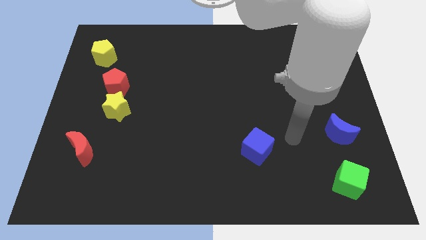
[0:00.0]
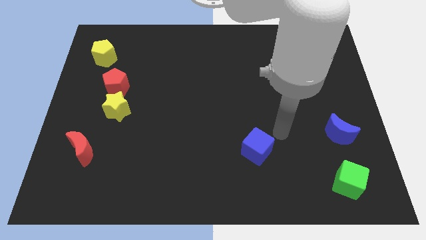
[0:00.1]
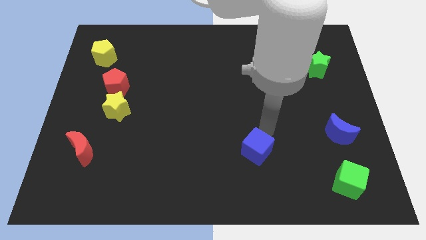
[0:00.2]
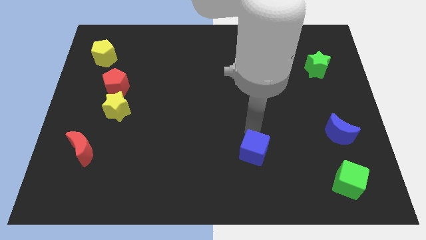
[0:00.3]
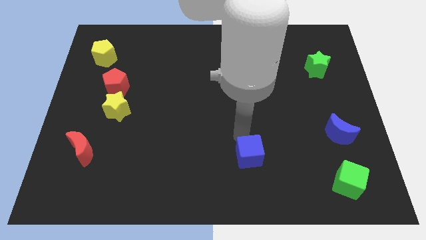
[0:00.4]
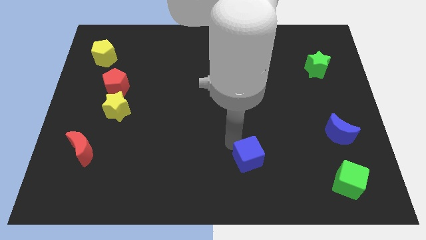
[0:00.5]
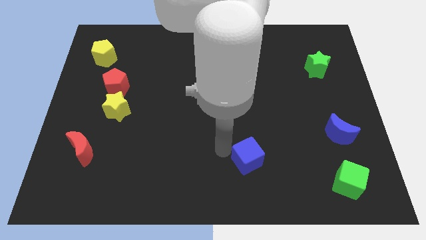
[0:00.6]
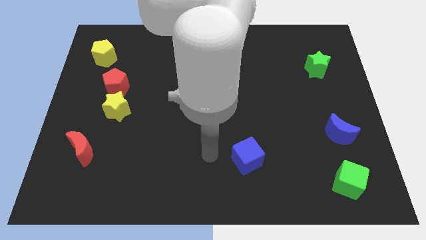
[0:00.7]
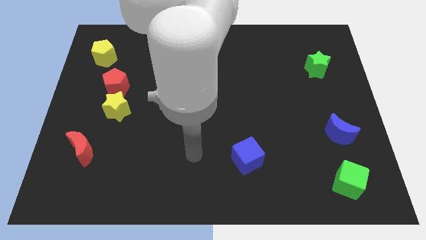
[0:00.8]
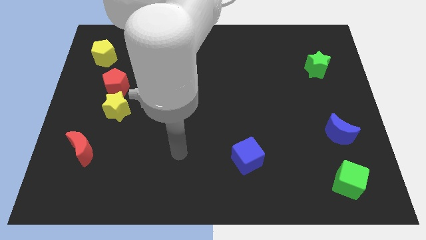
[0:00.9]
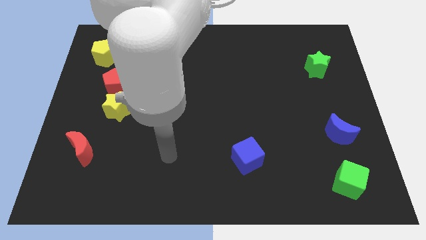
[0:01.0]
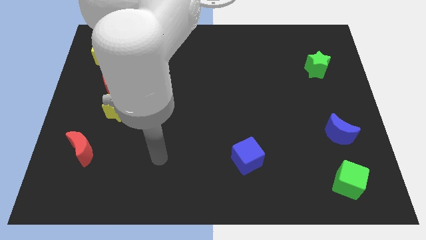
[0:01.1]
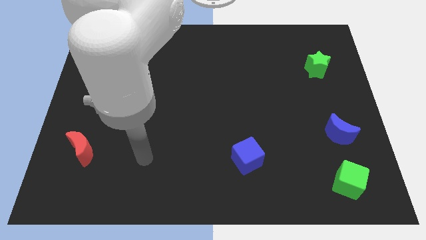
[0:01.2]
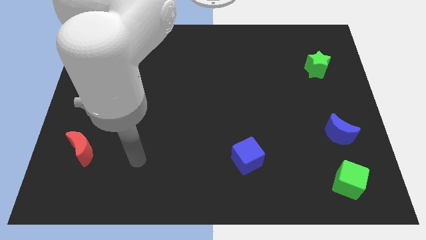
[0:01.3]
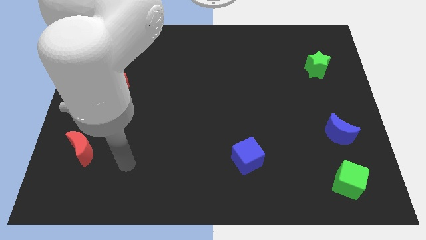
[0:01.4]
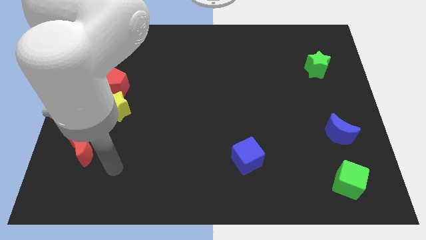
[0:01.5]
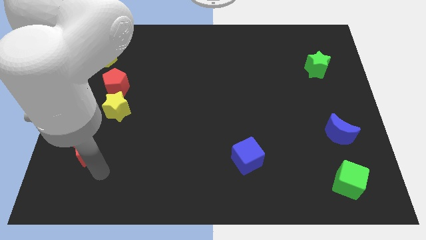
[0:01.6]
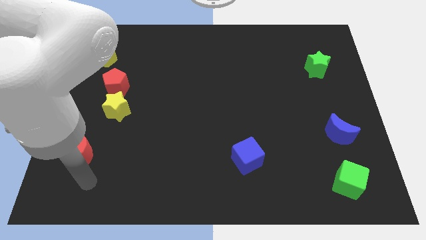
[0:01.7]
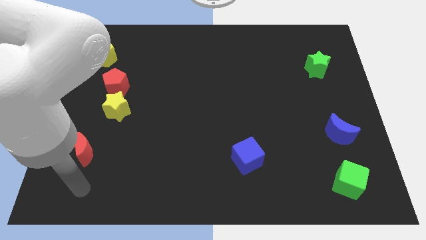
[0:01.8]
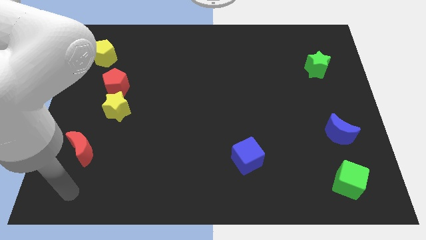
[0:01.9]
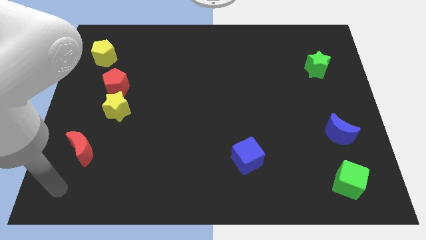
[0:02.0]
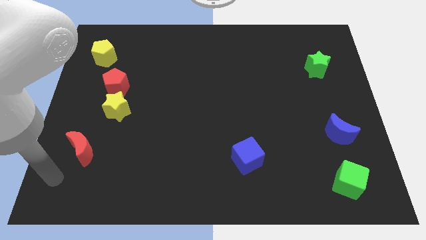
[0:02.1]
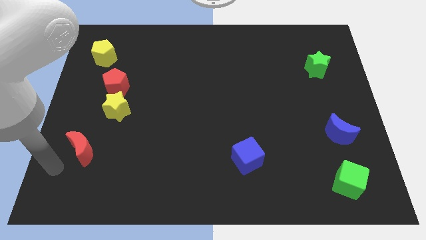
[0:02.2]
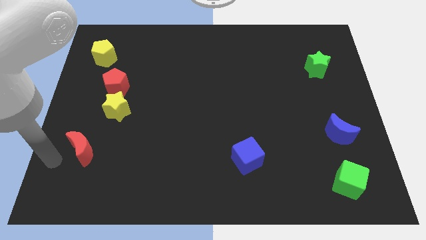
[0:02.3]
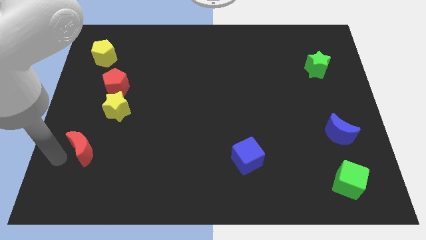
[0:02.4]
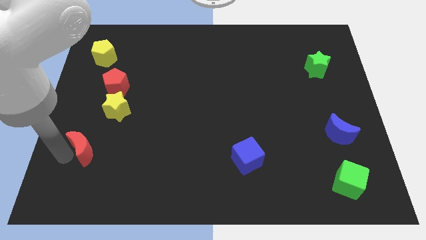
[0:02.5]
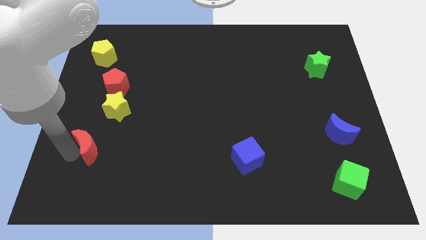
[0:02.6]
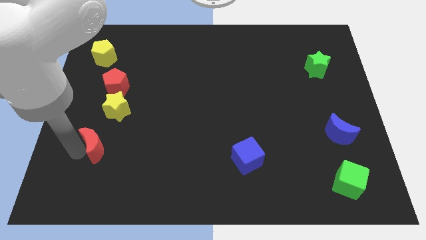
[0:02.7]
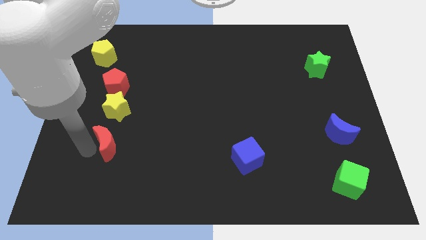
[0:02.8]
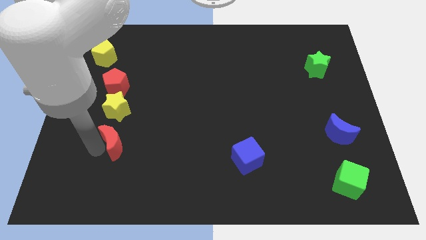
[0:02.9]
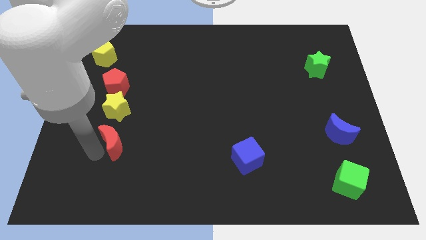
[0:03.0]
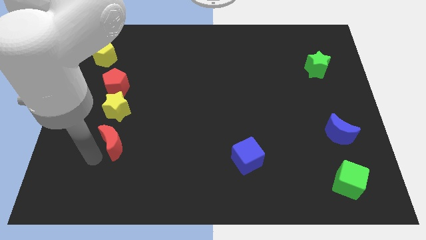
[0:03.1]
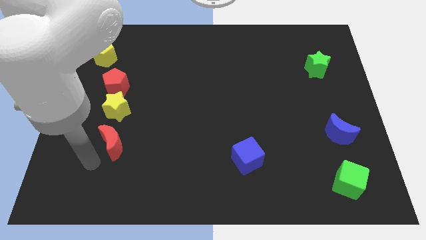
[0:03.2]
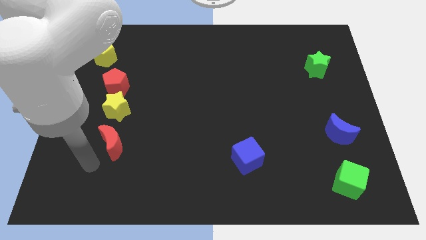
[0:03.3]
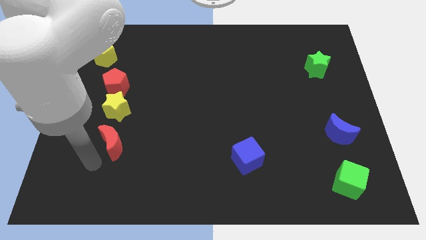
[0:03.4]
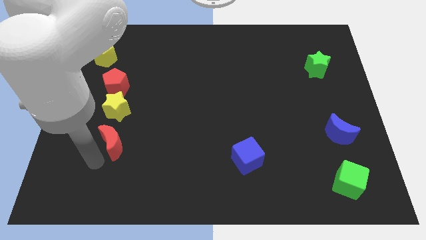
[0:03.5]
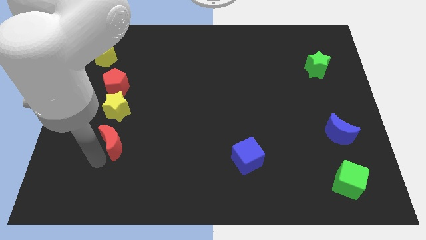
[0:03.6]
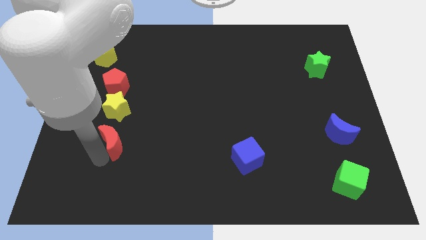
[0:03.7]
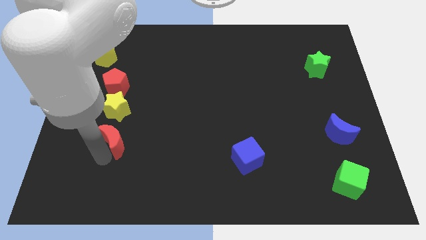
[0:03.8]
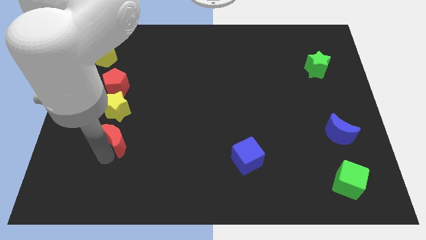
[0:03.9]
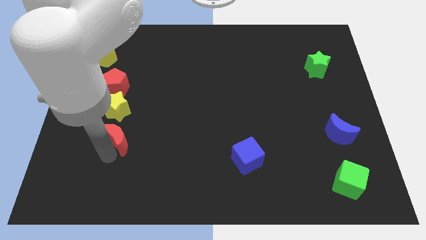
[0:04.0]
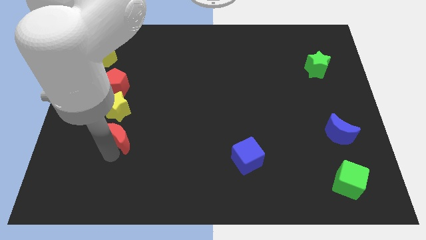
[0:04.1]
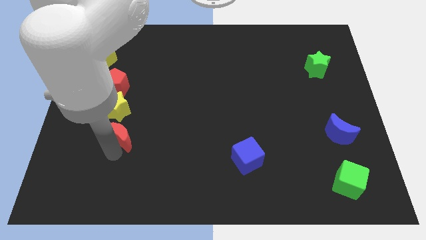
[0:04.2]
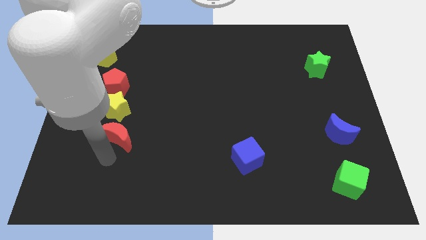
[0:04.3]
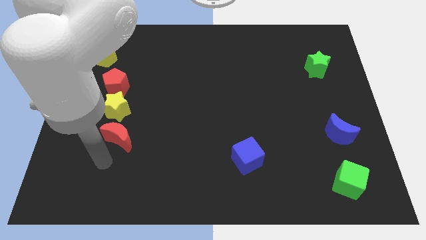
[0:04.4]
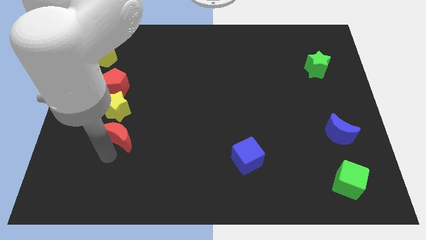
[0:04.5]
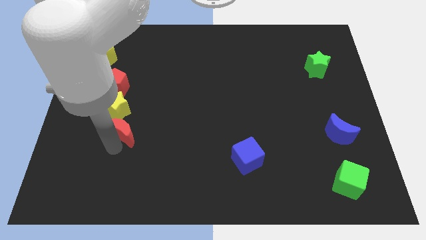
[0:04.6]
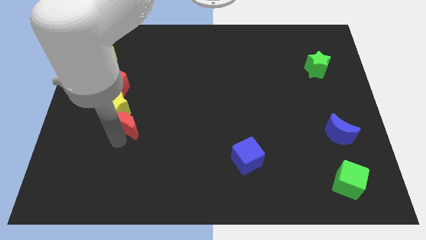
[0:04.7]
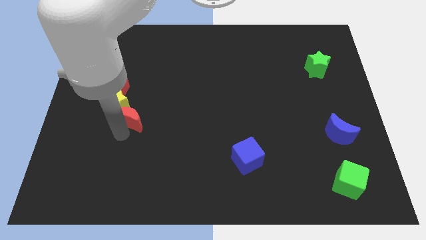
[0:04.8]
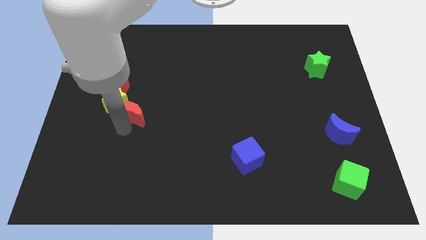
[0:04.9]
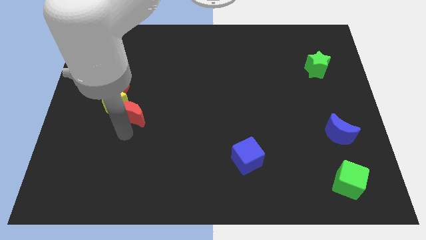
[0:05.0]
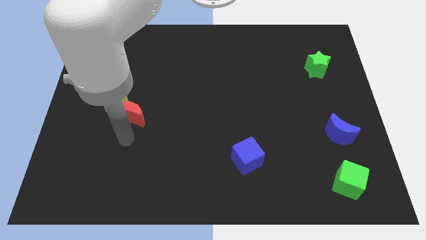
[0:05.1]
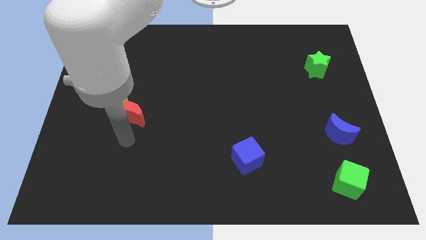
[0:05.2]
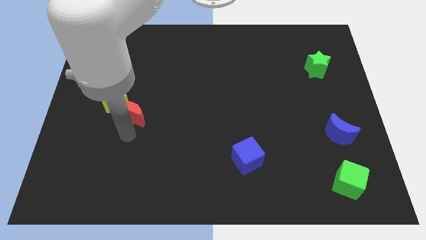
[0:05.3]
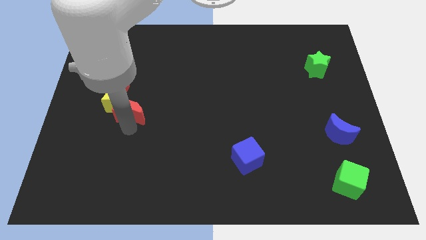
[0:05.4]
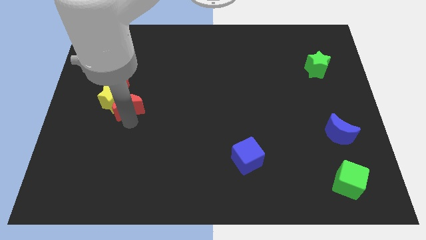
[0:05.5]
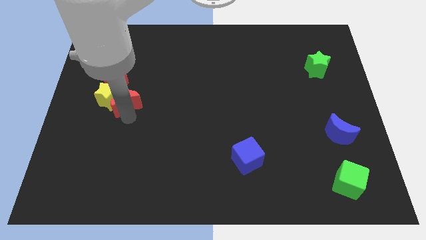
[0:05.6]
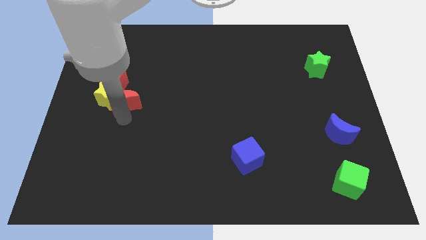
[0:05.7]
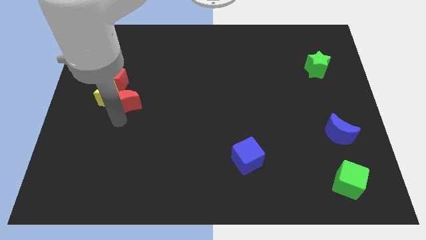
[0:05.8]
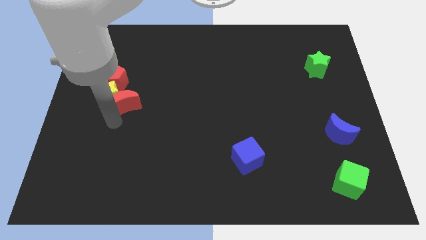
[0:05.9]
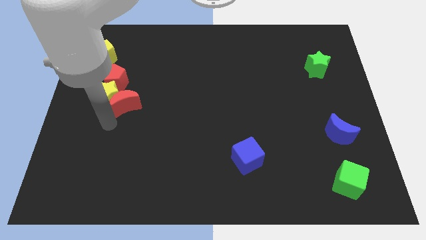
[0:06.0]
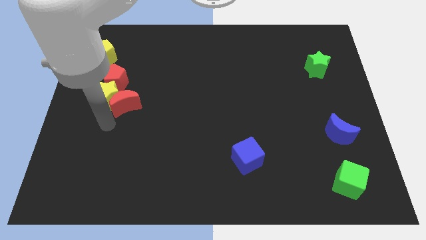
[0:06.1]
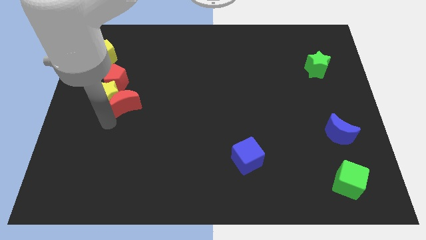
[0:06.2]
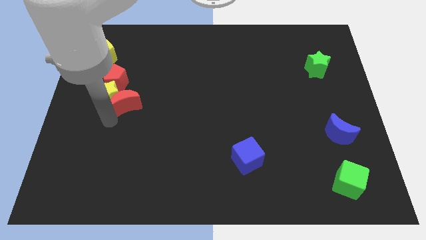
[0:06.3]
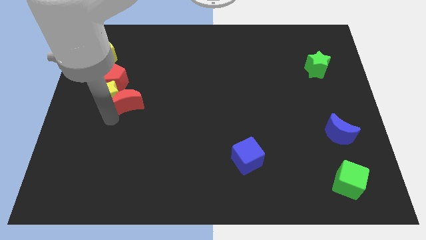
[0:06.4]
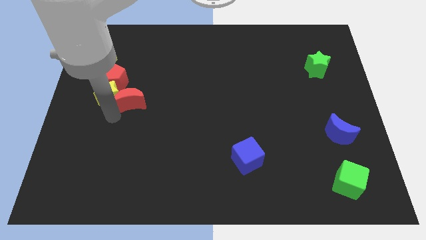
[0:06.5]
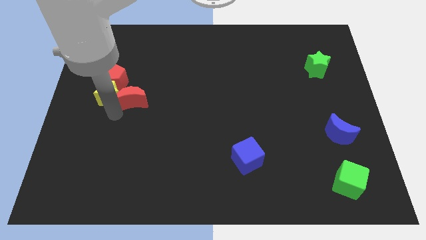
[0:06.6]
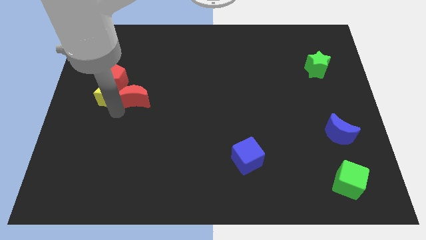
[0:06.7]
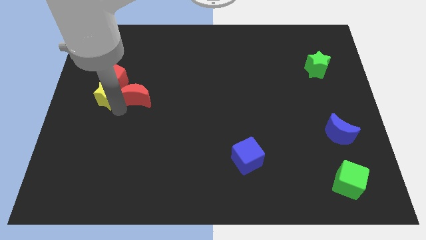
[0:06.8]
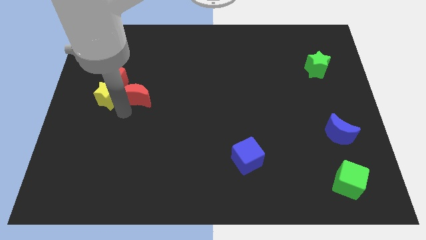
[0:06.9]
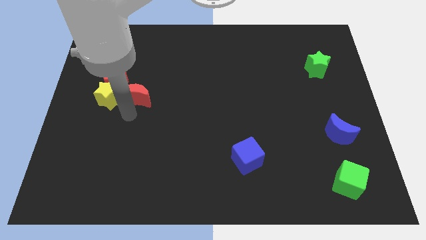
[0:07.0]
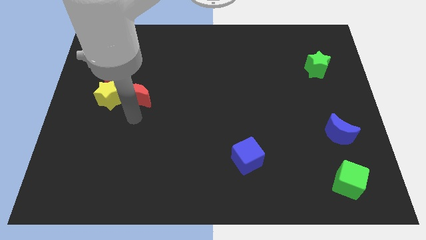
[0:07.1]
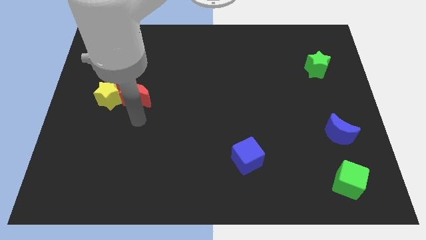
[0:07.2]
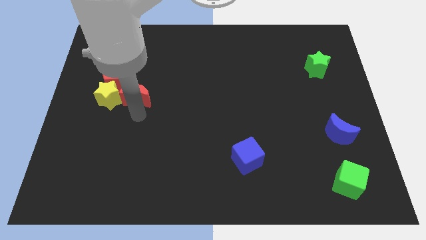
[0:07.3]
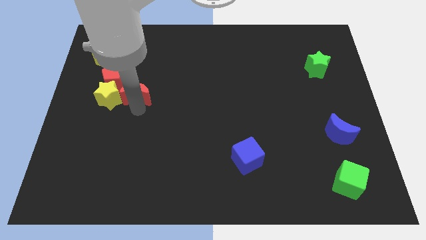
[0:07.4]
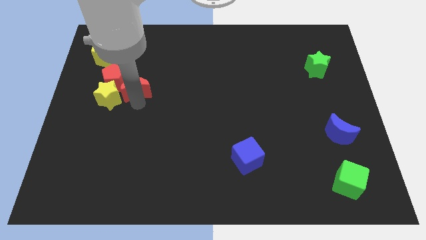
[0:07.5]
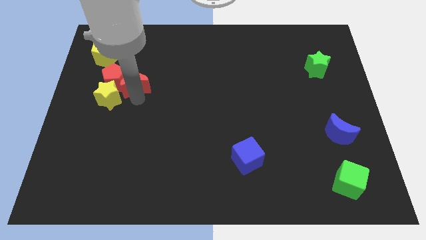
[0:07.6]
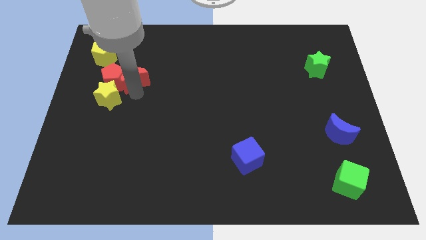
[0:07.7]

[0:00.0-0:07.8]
push the red moon diagonally up and to the right of the red pentagon
